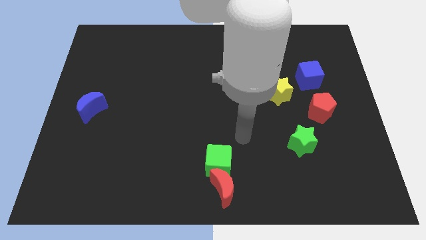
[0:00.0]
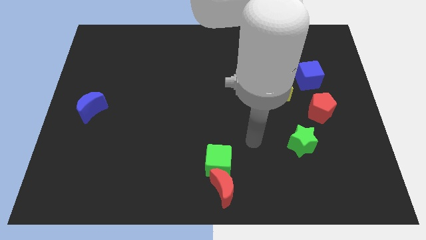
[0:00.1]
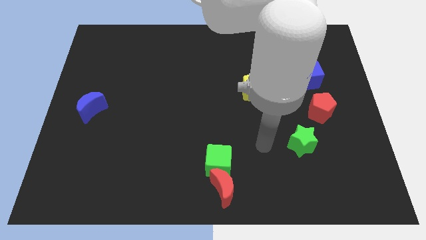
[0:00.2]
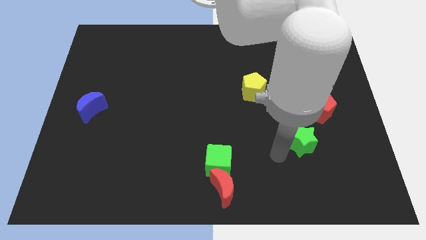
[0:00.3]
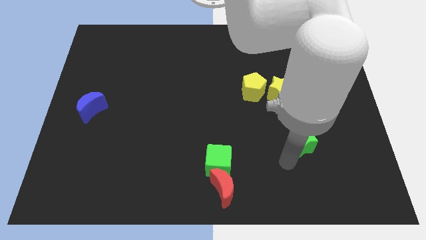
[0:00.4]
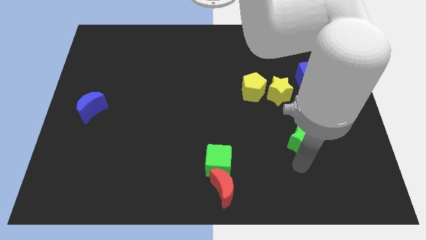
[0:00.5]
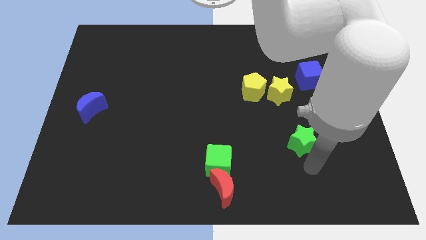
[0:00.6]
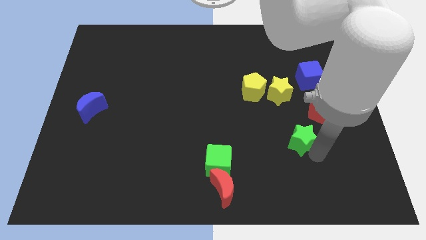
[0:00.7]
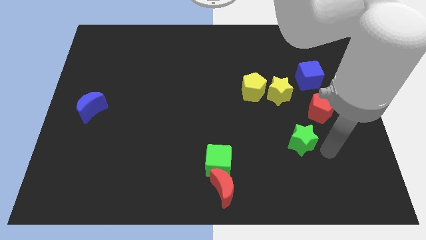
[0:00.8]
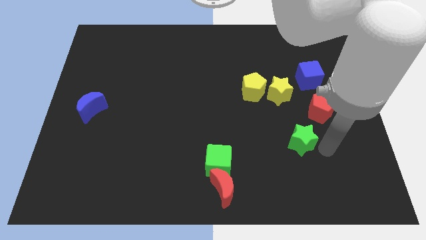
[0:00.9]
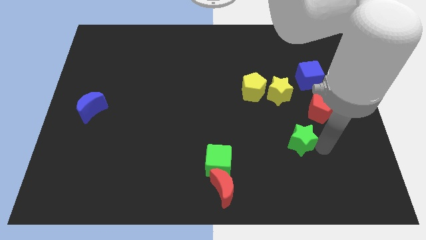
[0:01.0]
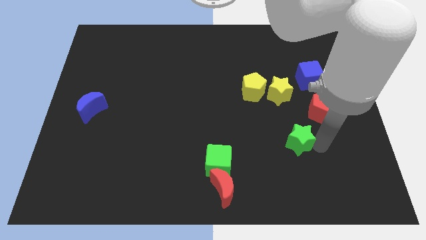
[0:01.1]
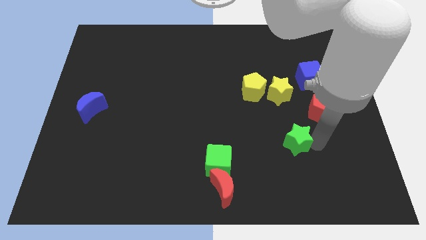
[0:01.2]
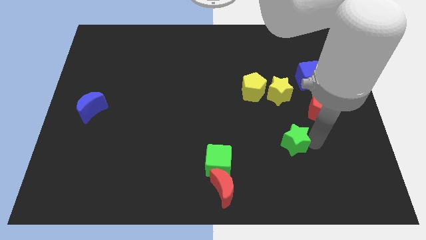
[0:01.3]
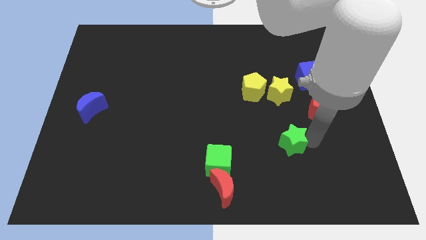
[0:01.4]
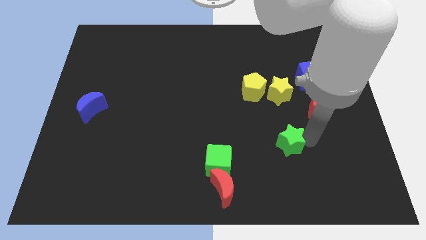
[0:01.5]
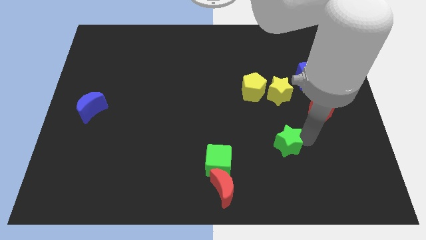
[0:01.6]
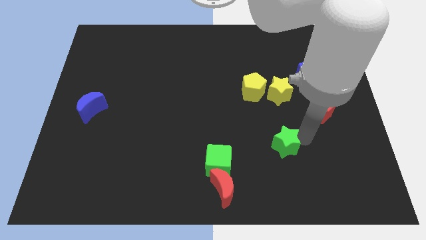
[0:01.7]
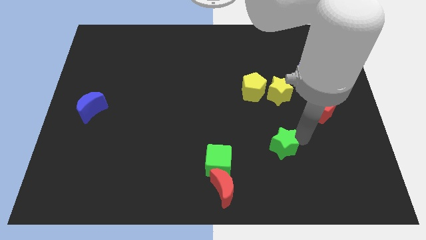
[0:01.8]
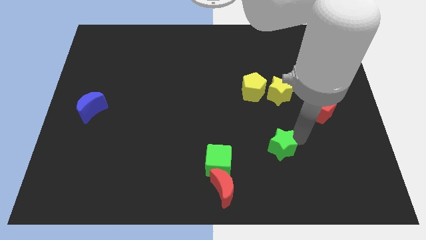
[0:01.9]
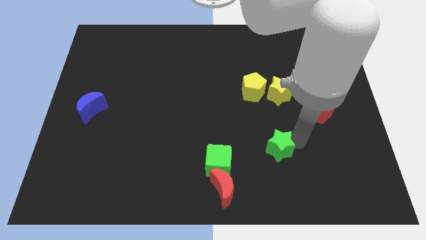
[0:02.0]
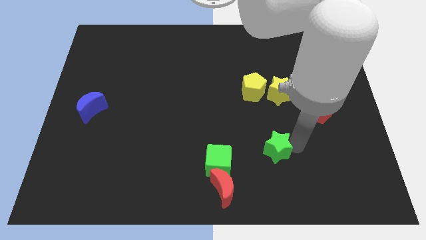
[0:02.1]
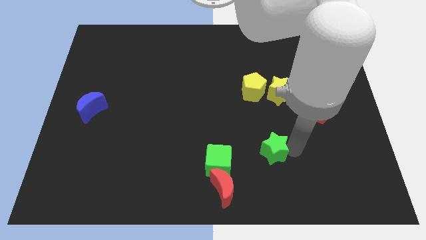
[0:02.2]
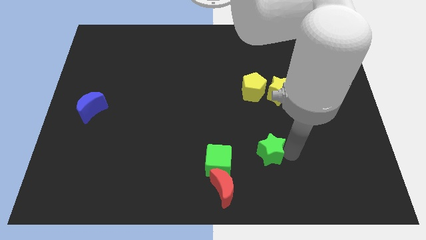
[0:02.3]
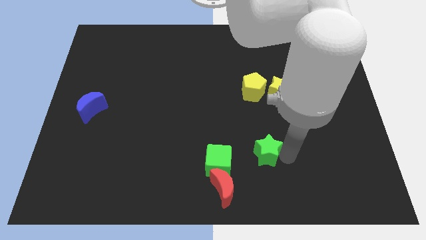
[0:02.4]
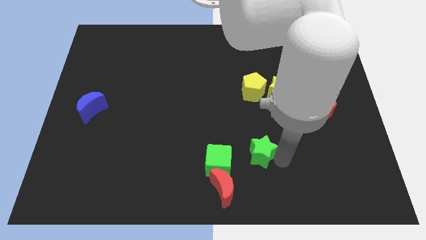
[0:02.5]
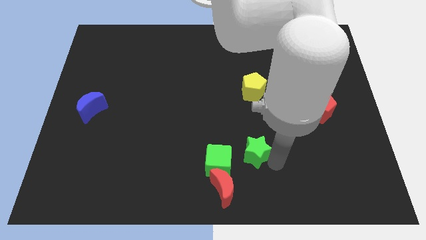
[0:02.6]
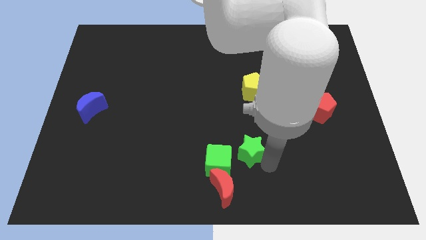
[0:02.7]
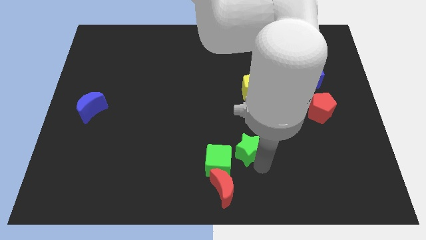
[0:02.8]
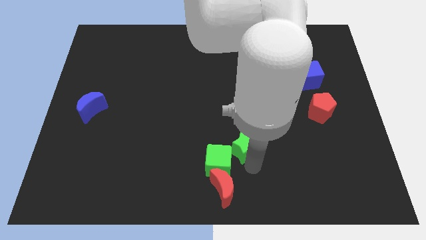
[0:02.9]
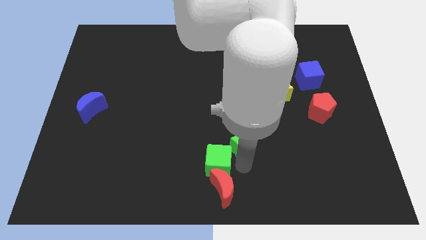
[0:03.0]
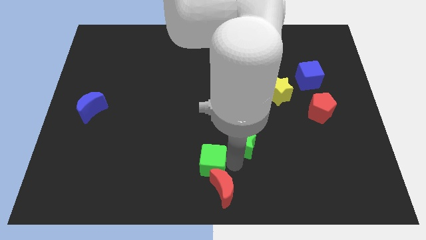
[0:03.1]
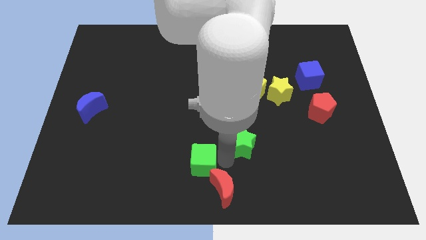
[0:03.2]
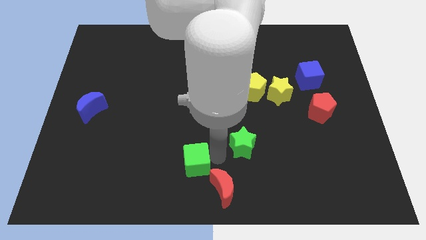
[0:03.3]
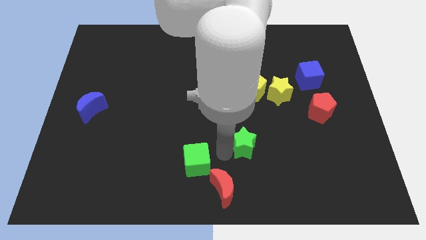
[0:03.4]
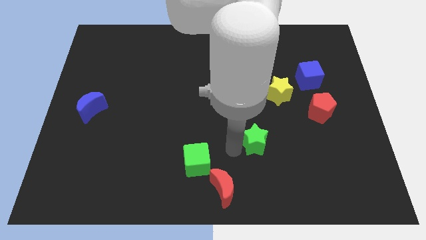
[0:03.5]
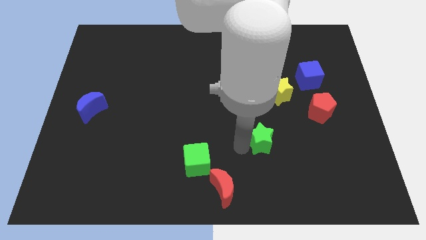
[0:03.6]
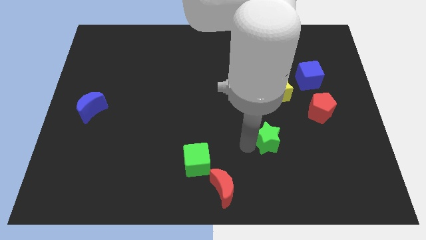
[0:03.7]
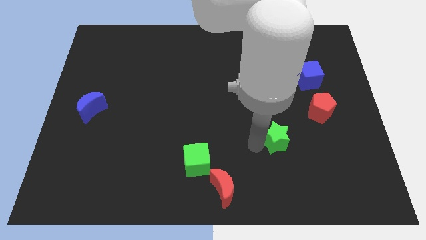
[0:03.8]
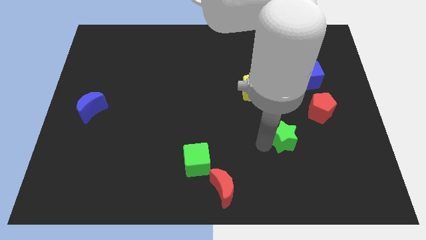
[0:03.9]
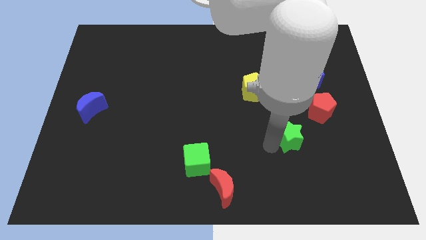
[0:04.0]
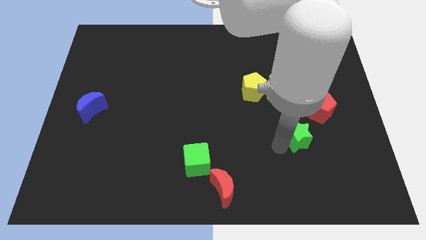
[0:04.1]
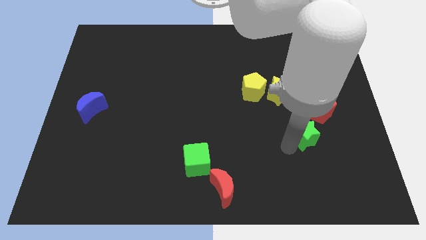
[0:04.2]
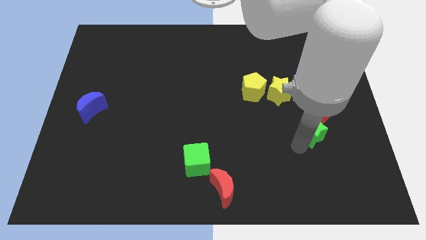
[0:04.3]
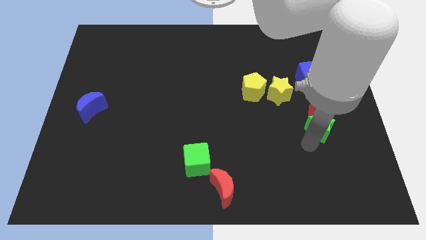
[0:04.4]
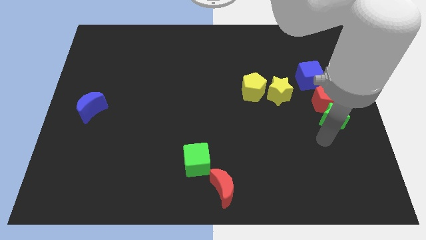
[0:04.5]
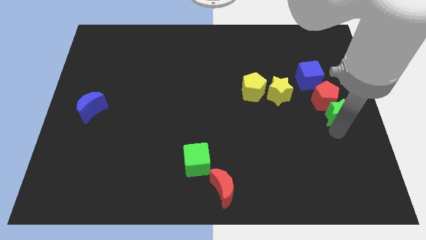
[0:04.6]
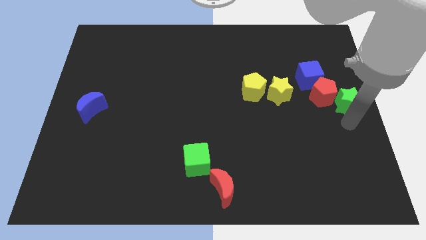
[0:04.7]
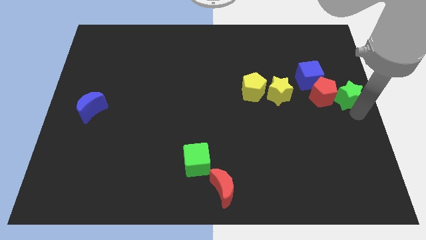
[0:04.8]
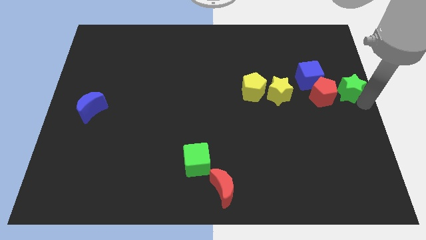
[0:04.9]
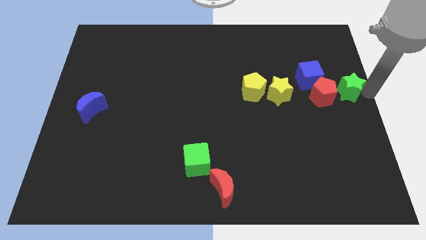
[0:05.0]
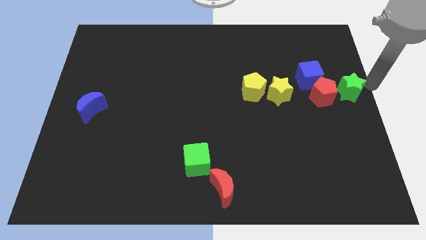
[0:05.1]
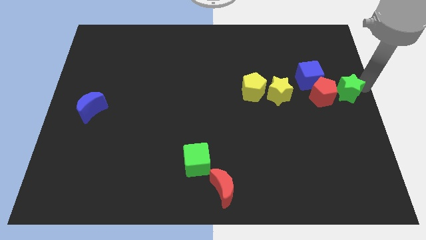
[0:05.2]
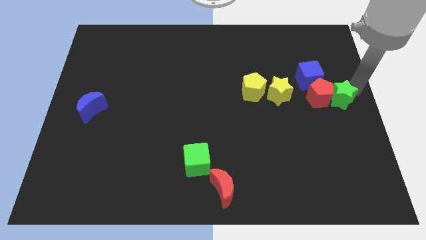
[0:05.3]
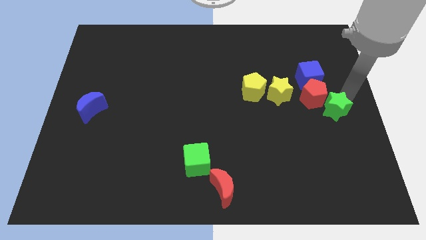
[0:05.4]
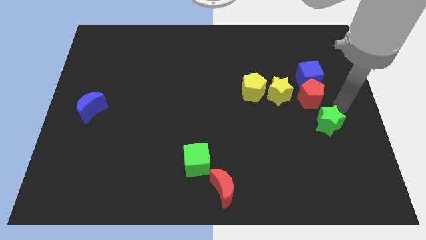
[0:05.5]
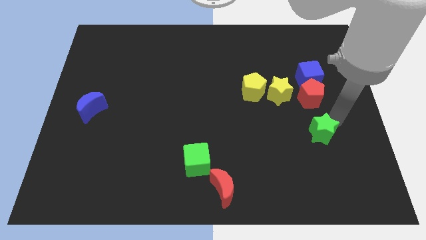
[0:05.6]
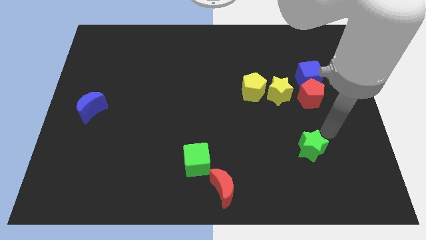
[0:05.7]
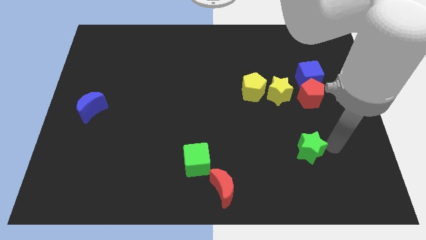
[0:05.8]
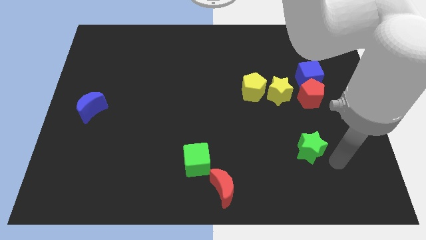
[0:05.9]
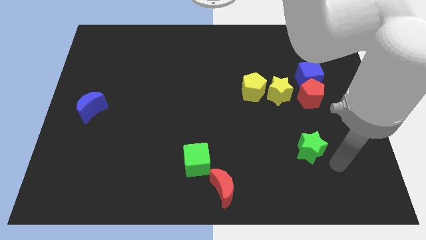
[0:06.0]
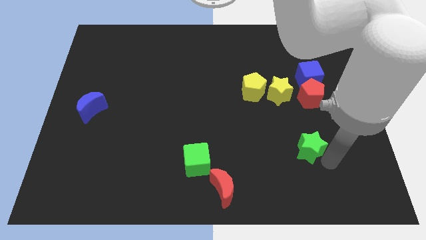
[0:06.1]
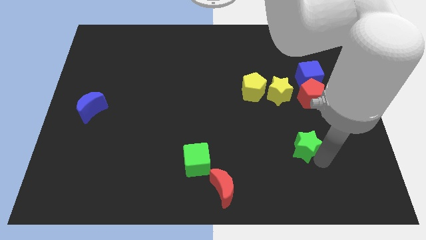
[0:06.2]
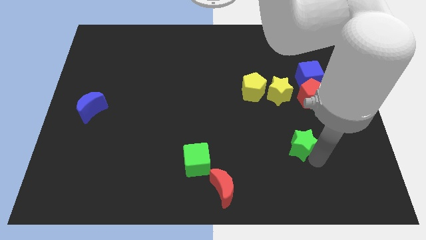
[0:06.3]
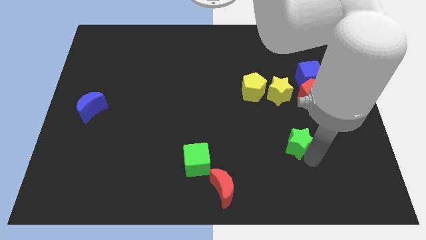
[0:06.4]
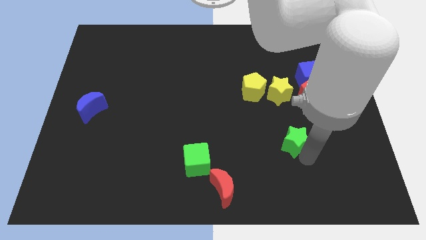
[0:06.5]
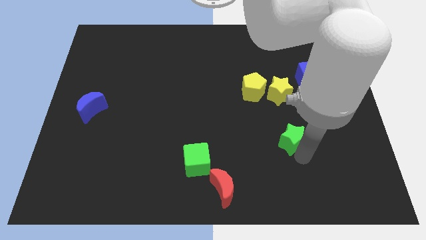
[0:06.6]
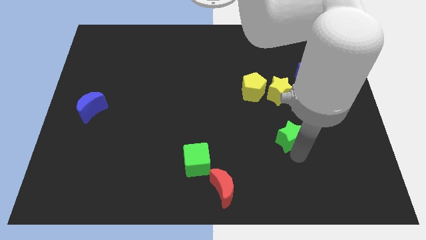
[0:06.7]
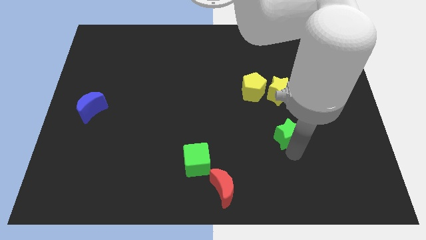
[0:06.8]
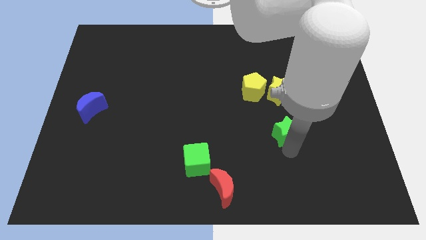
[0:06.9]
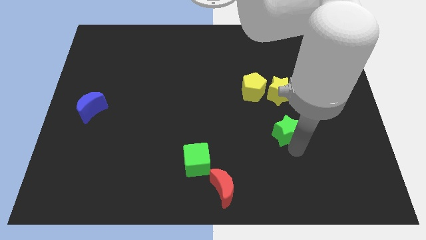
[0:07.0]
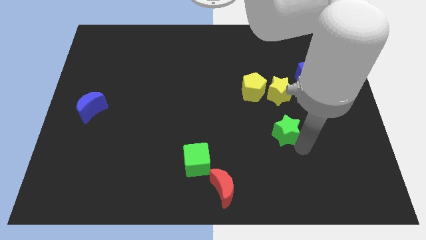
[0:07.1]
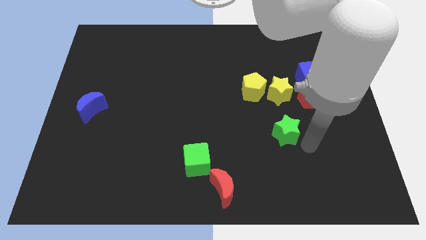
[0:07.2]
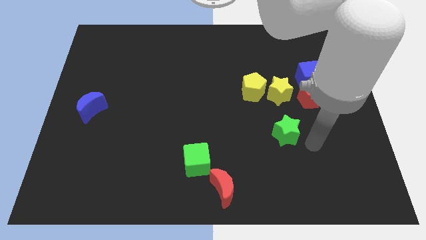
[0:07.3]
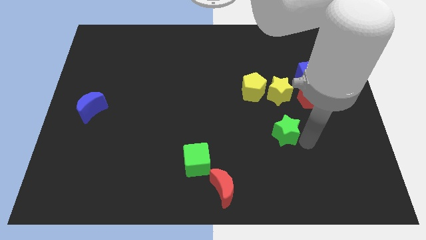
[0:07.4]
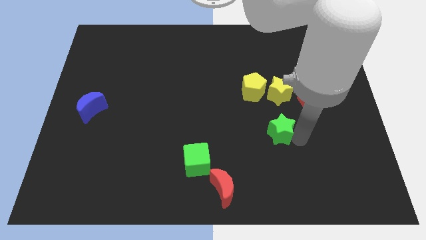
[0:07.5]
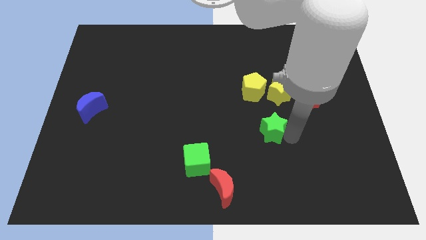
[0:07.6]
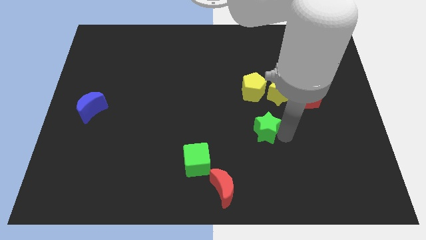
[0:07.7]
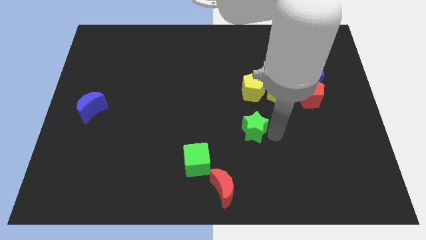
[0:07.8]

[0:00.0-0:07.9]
slide the green star to the middle of the board
